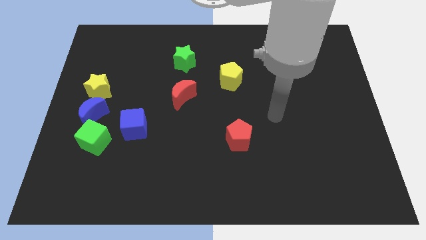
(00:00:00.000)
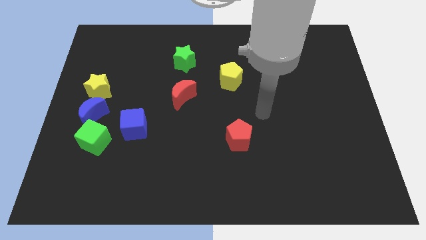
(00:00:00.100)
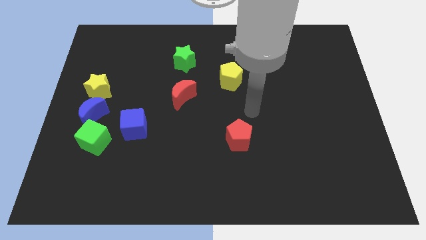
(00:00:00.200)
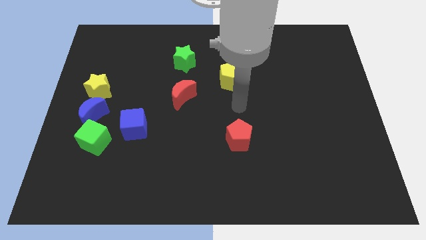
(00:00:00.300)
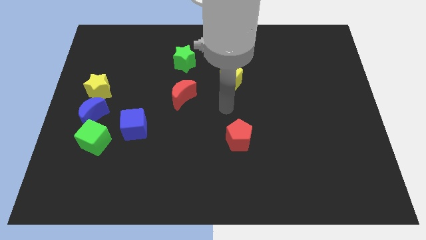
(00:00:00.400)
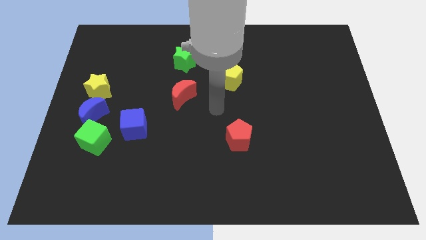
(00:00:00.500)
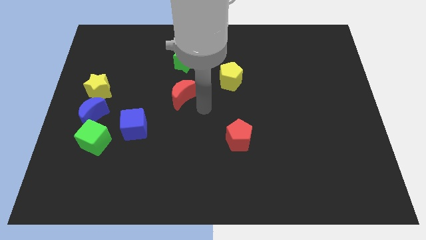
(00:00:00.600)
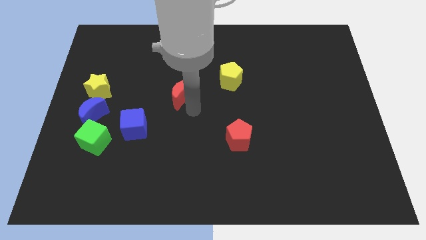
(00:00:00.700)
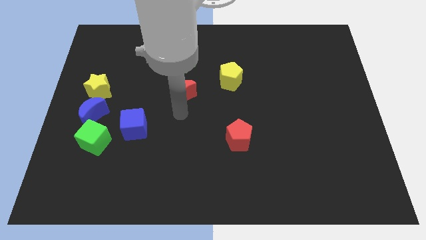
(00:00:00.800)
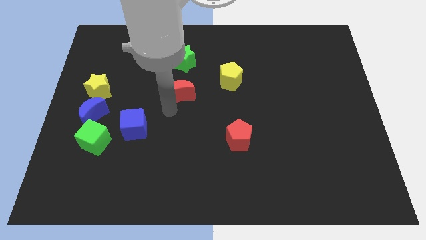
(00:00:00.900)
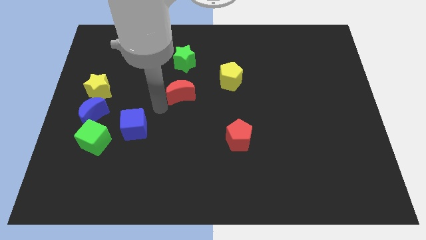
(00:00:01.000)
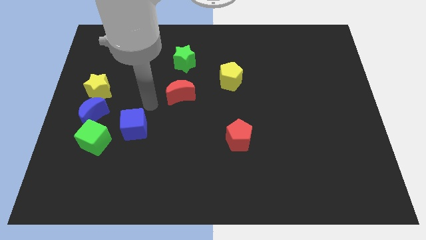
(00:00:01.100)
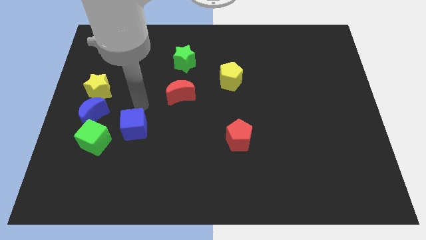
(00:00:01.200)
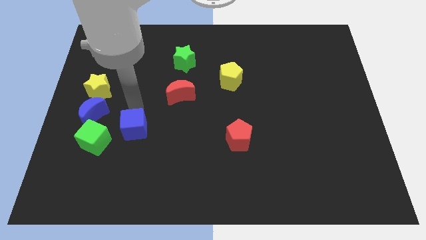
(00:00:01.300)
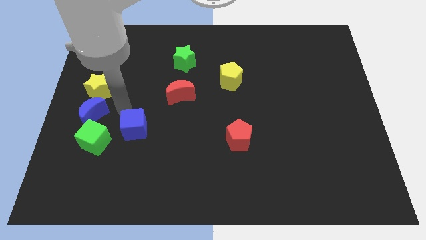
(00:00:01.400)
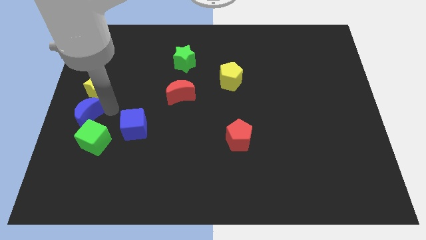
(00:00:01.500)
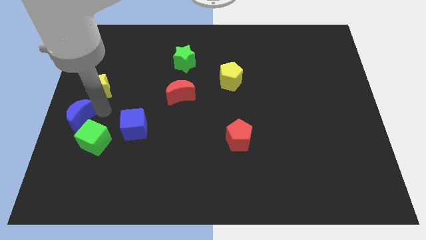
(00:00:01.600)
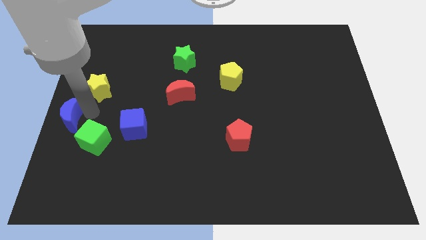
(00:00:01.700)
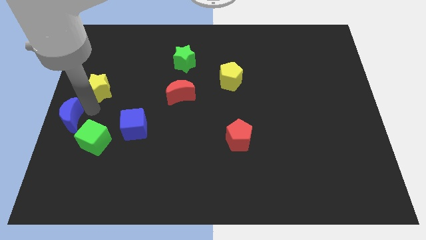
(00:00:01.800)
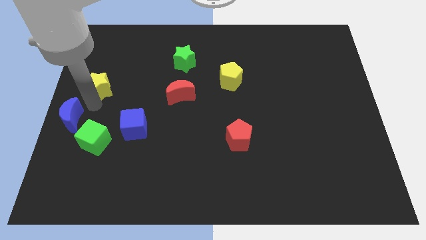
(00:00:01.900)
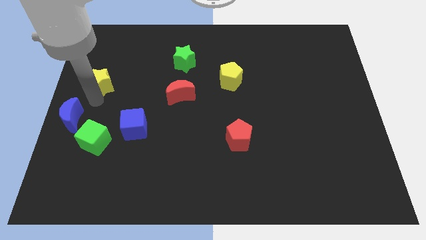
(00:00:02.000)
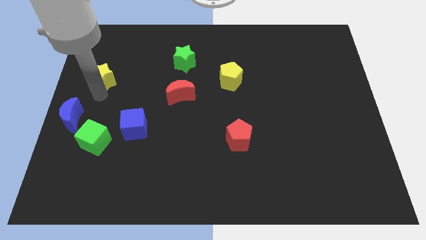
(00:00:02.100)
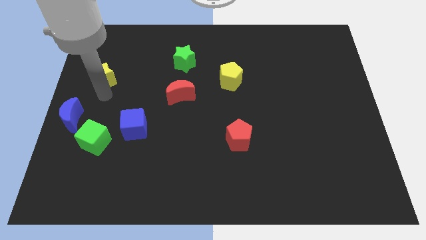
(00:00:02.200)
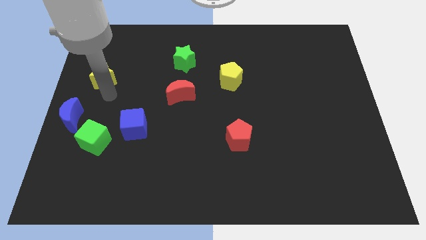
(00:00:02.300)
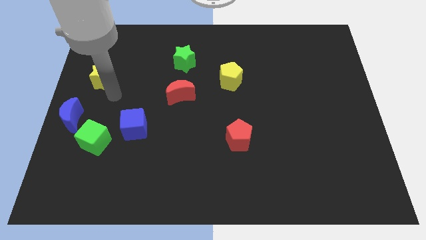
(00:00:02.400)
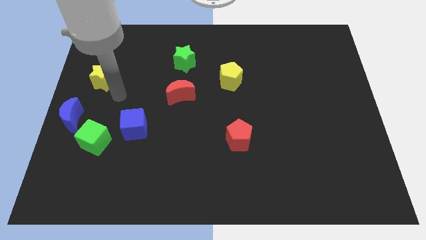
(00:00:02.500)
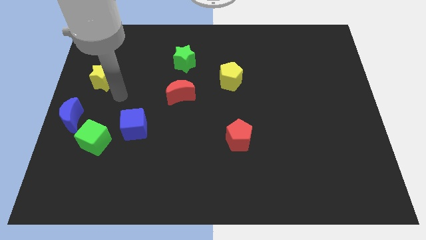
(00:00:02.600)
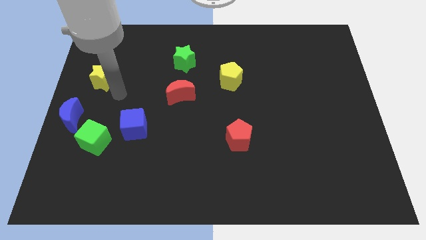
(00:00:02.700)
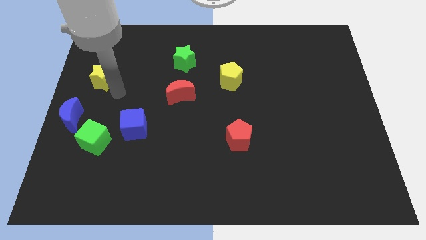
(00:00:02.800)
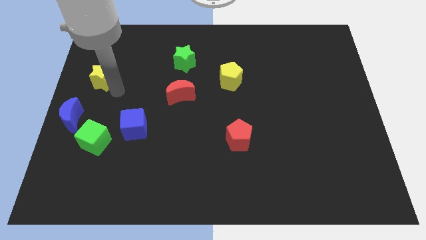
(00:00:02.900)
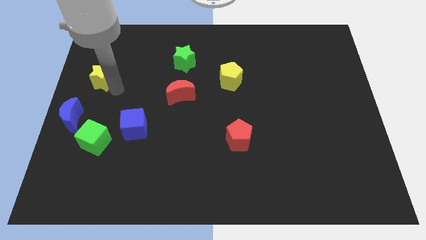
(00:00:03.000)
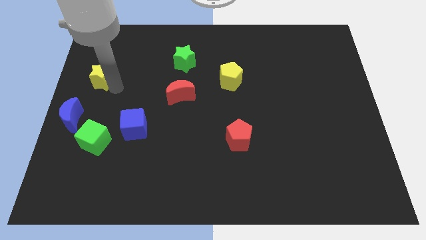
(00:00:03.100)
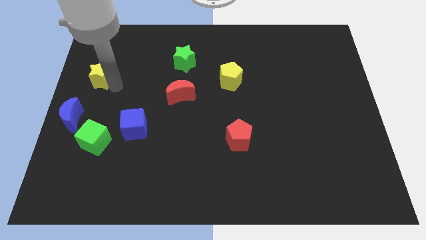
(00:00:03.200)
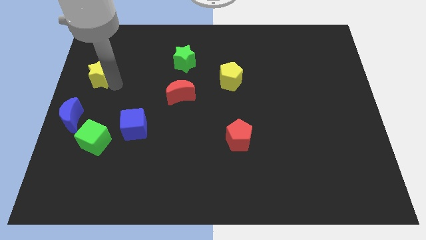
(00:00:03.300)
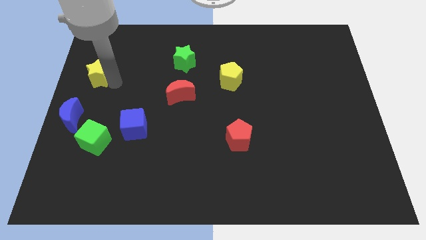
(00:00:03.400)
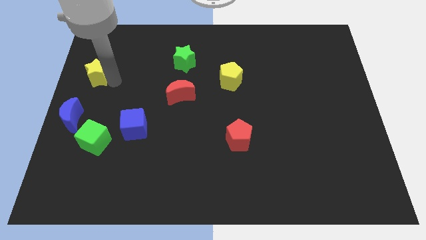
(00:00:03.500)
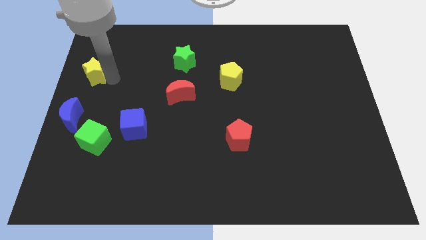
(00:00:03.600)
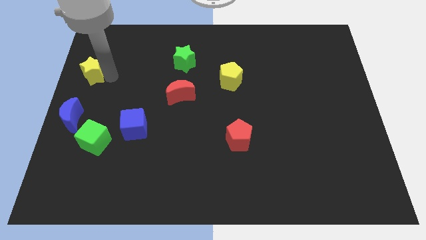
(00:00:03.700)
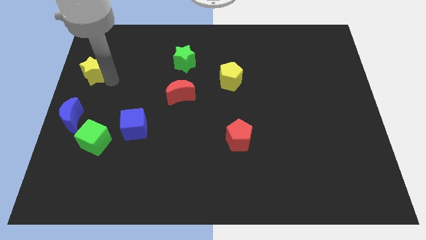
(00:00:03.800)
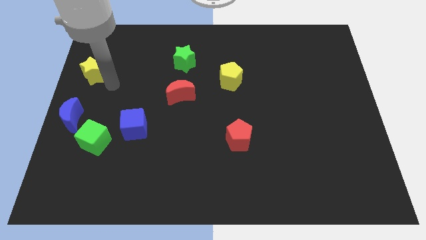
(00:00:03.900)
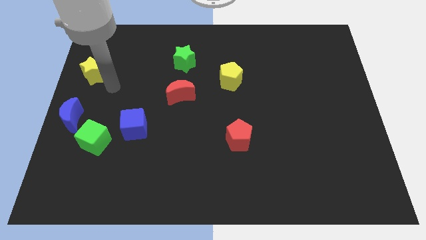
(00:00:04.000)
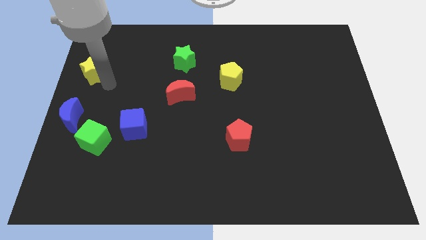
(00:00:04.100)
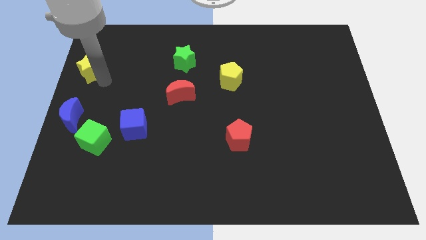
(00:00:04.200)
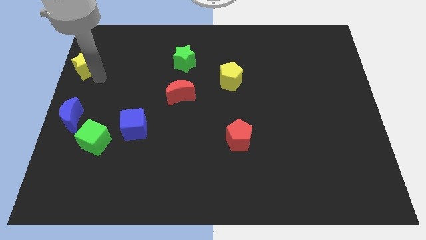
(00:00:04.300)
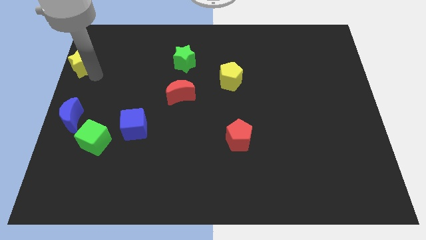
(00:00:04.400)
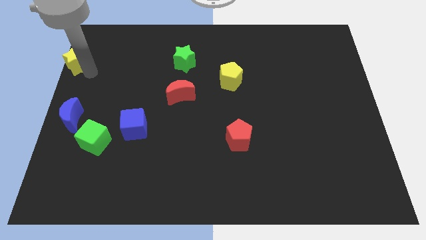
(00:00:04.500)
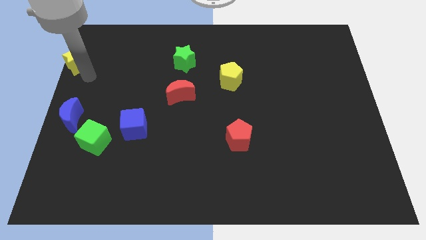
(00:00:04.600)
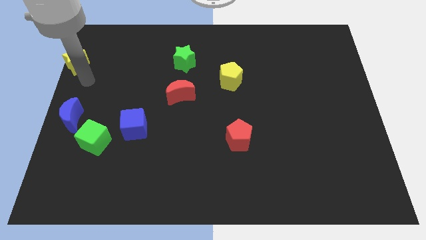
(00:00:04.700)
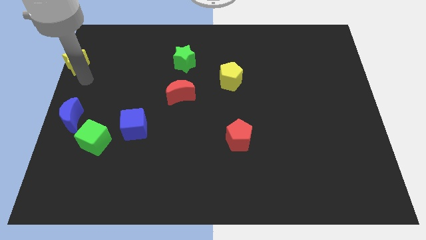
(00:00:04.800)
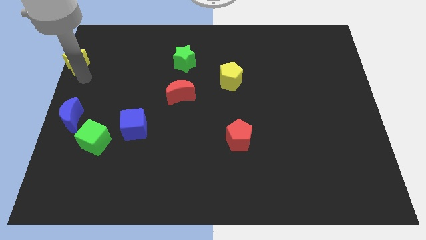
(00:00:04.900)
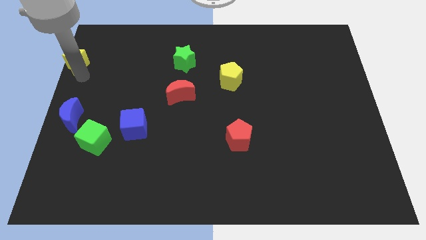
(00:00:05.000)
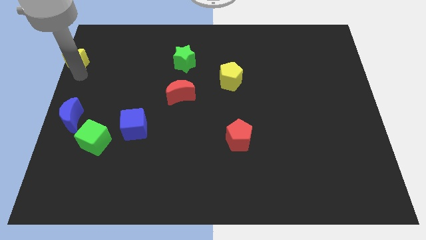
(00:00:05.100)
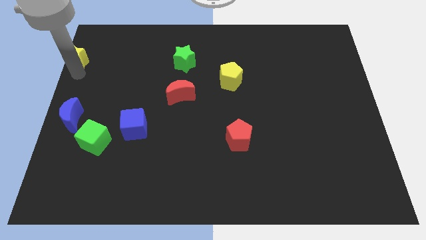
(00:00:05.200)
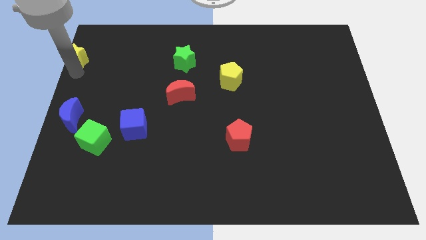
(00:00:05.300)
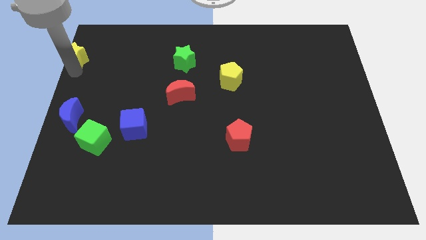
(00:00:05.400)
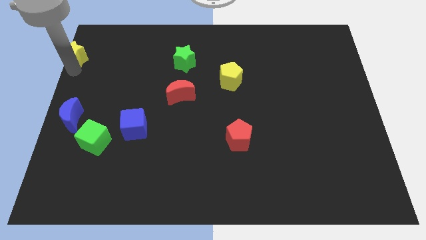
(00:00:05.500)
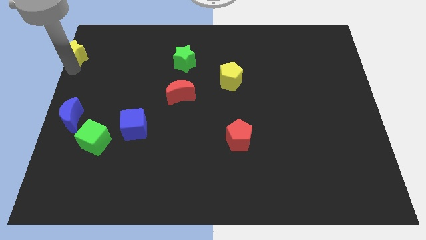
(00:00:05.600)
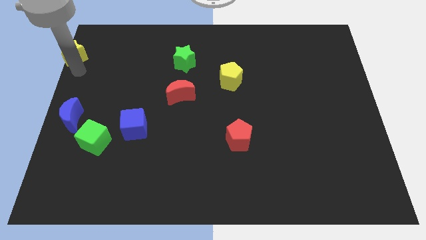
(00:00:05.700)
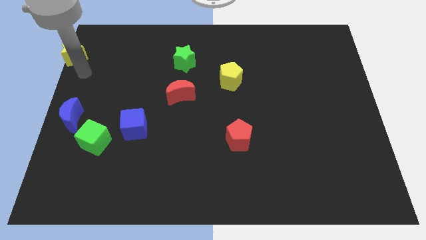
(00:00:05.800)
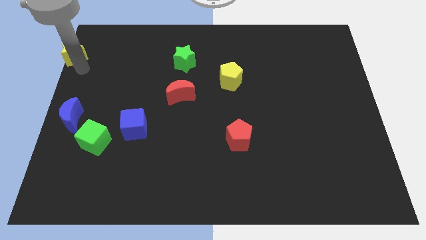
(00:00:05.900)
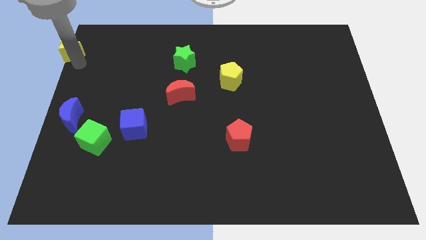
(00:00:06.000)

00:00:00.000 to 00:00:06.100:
slide the yellow star to the upper left corner
